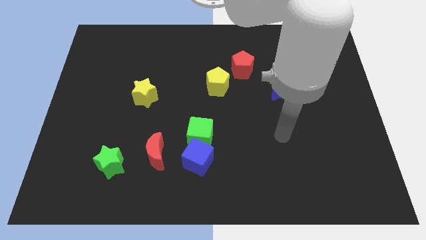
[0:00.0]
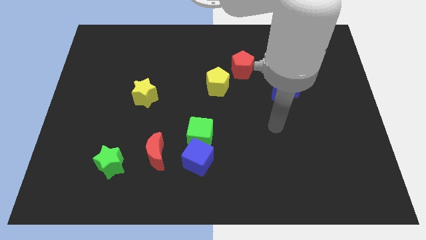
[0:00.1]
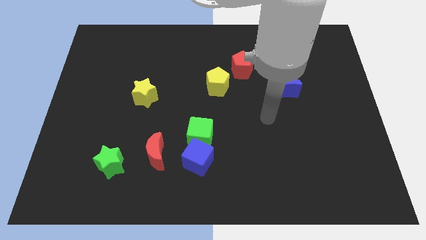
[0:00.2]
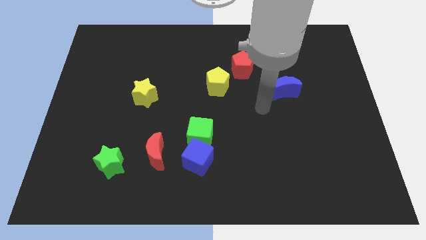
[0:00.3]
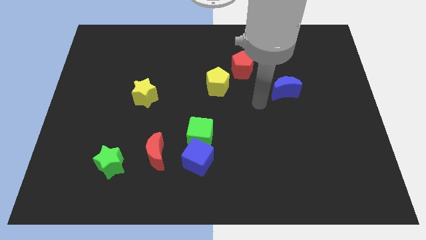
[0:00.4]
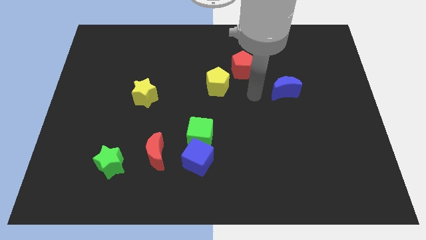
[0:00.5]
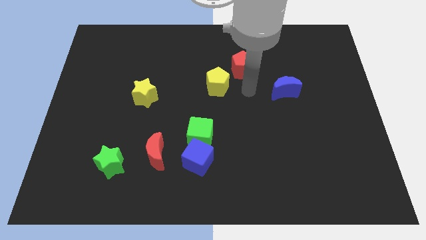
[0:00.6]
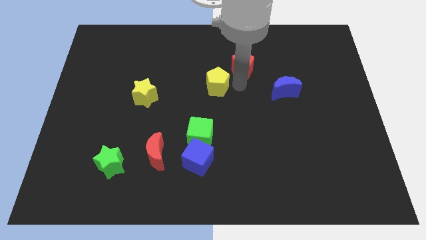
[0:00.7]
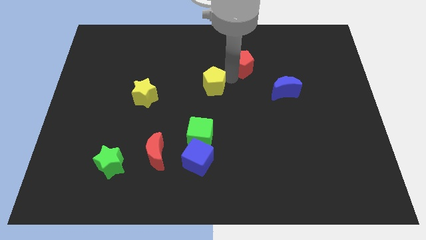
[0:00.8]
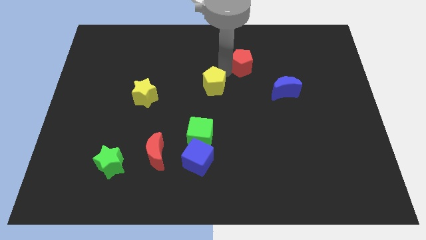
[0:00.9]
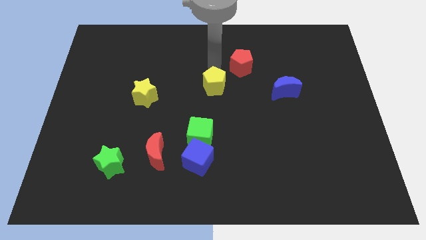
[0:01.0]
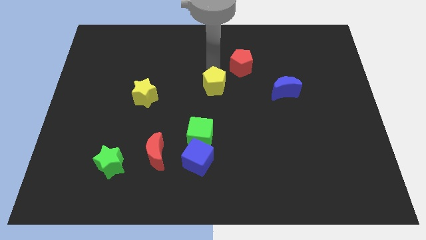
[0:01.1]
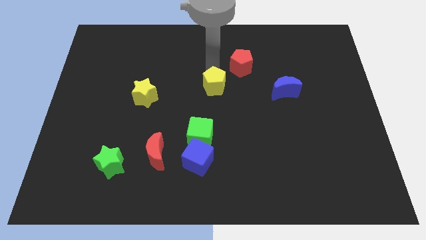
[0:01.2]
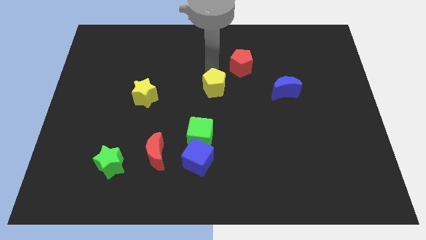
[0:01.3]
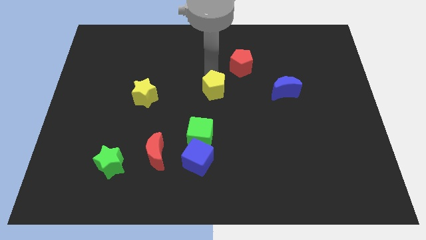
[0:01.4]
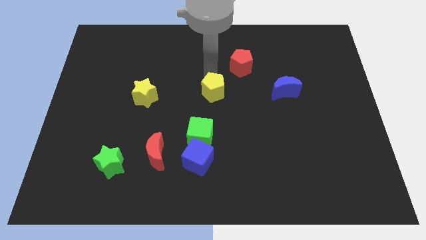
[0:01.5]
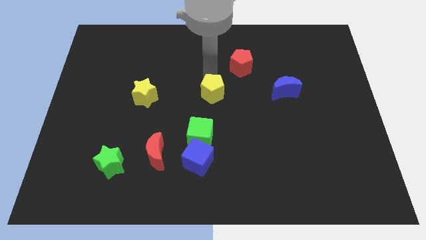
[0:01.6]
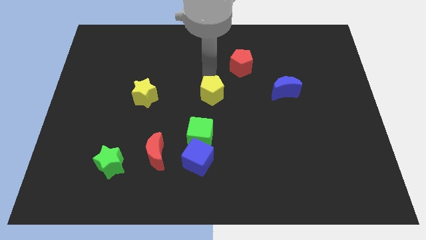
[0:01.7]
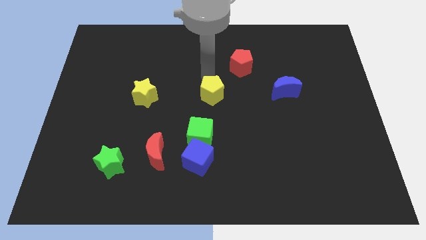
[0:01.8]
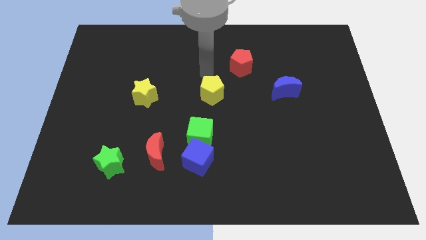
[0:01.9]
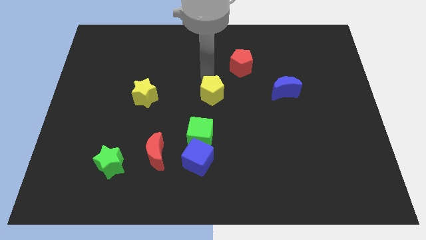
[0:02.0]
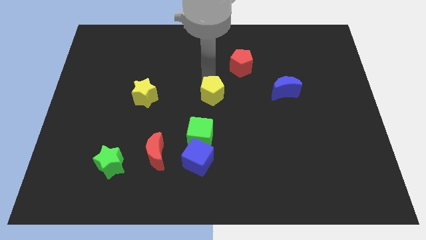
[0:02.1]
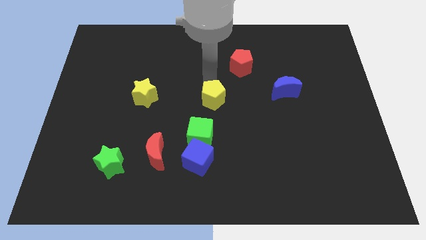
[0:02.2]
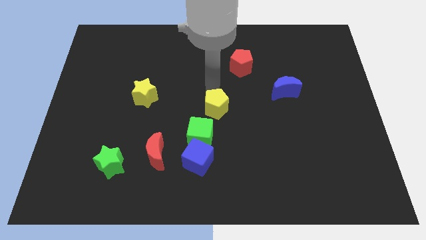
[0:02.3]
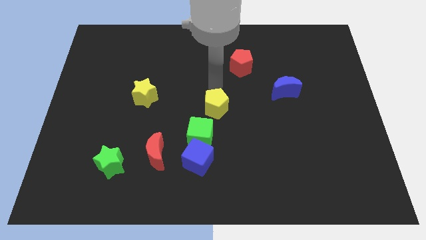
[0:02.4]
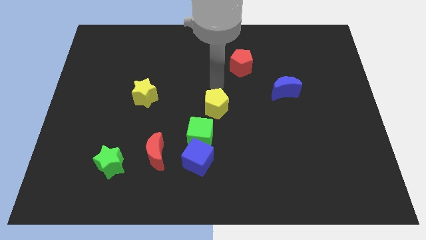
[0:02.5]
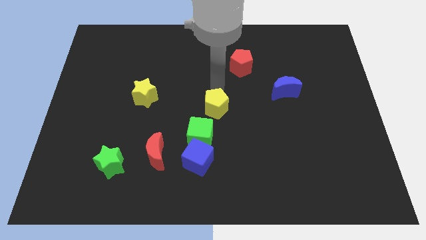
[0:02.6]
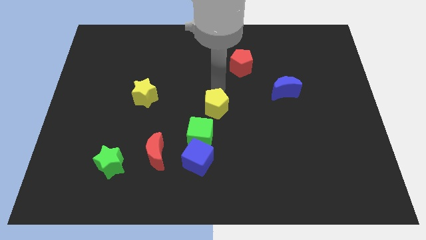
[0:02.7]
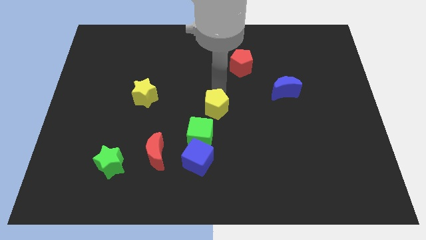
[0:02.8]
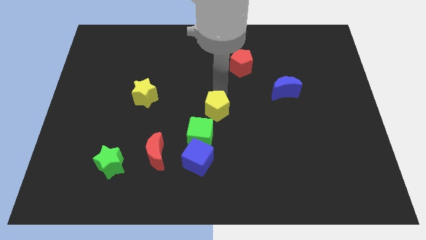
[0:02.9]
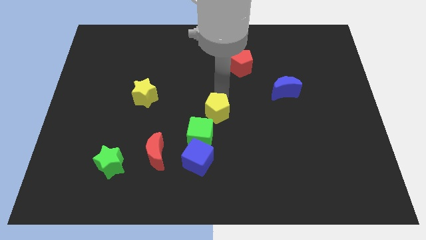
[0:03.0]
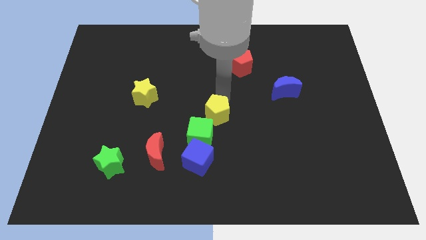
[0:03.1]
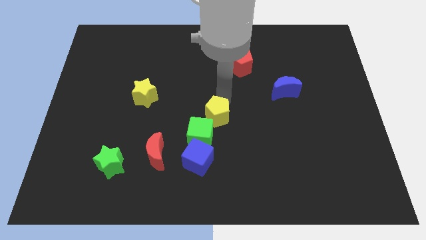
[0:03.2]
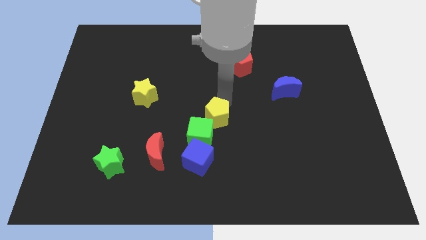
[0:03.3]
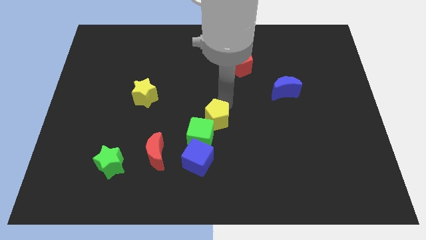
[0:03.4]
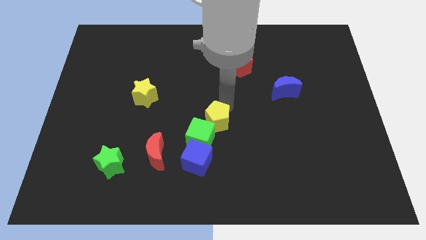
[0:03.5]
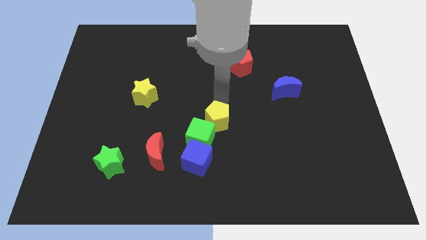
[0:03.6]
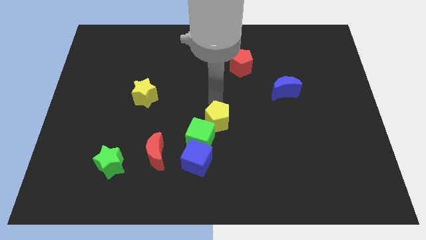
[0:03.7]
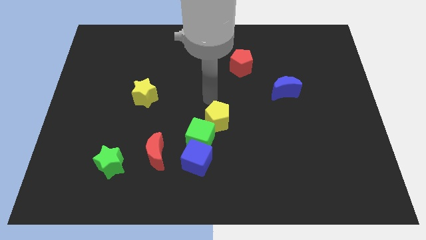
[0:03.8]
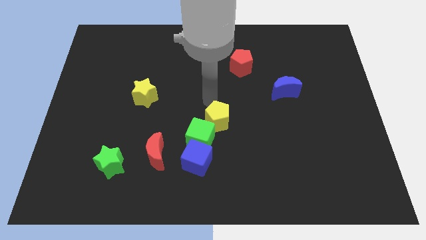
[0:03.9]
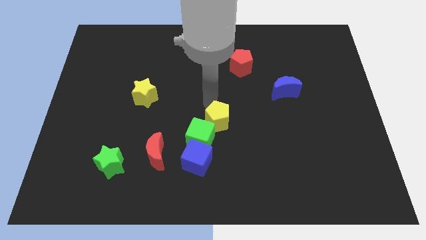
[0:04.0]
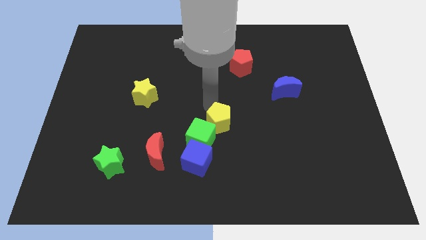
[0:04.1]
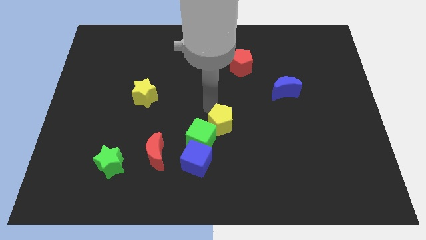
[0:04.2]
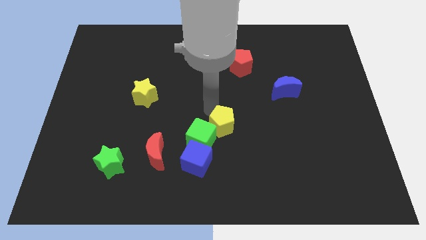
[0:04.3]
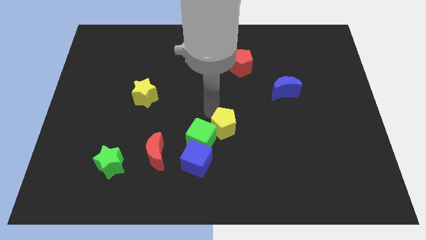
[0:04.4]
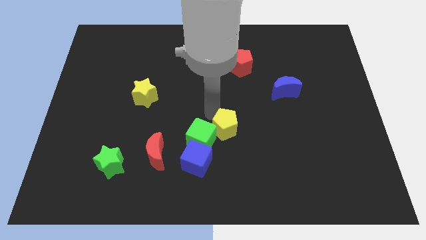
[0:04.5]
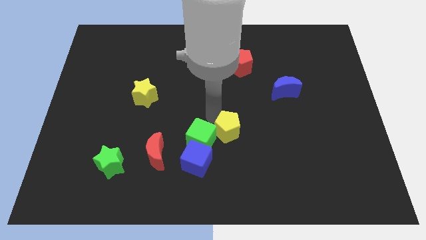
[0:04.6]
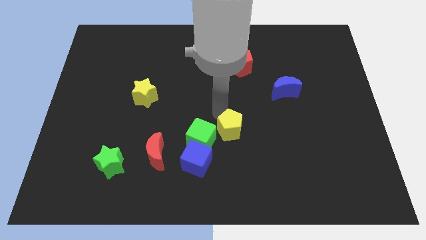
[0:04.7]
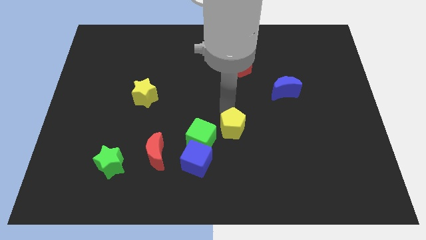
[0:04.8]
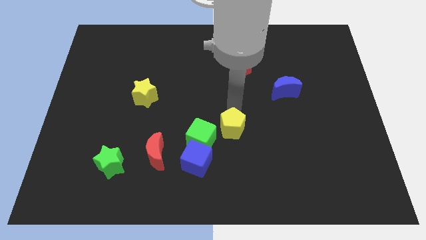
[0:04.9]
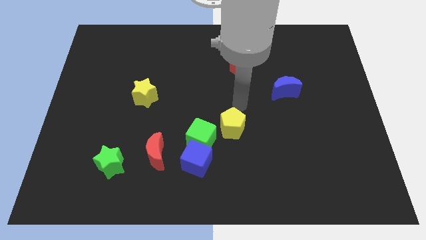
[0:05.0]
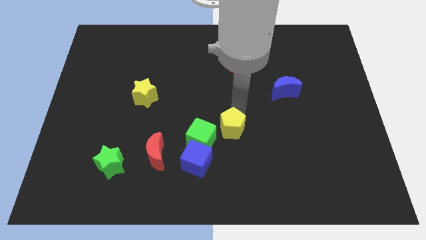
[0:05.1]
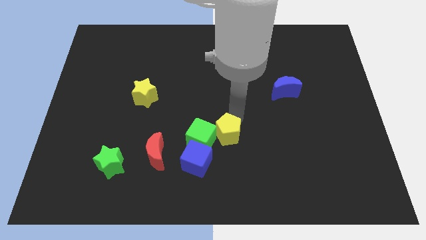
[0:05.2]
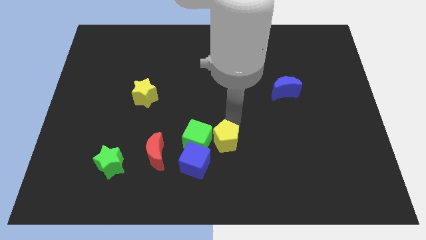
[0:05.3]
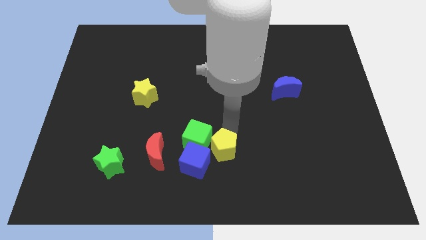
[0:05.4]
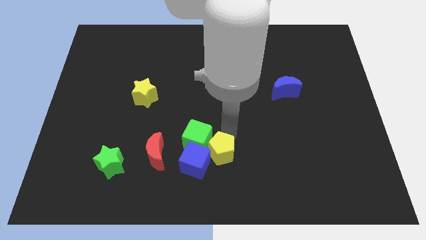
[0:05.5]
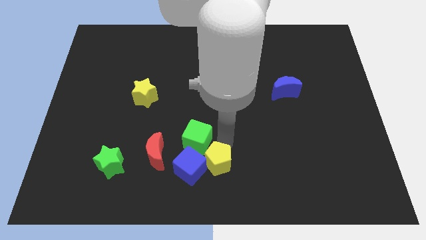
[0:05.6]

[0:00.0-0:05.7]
put the yellow pentagon to the bottom side
